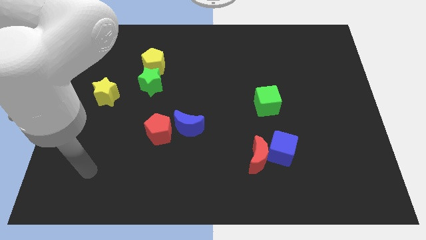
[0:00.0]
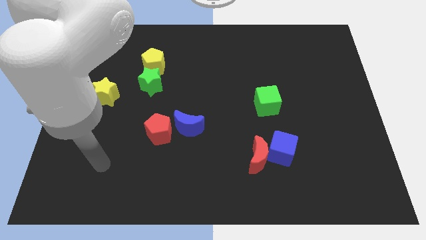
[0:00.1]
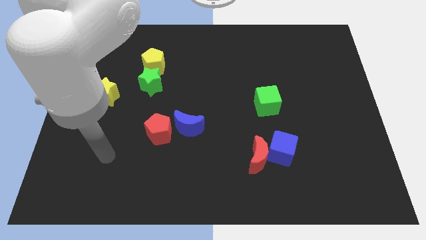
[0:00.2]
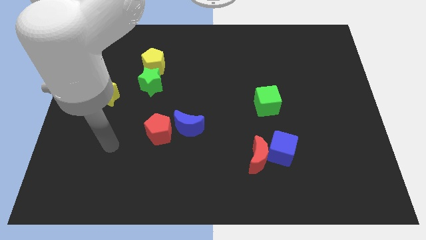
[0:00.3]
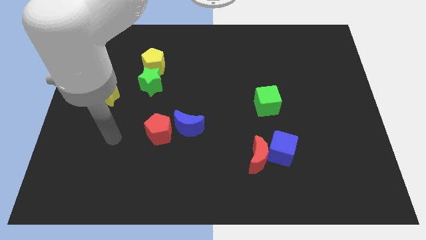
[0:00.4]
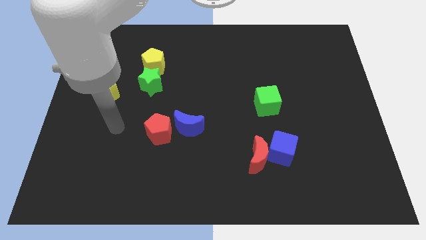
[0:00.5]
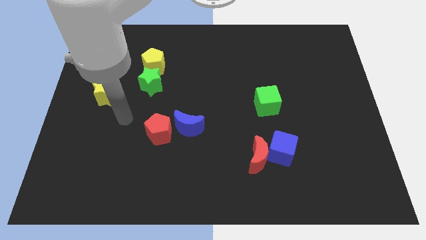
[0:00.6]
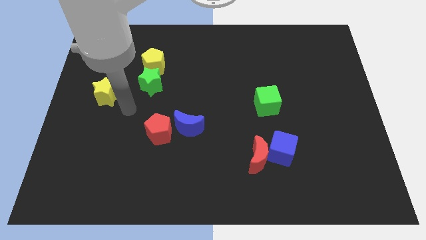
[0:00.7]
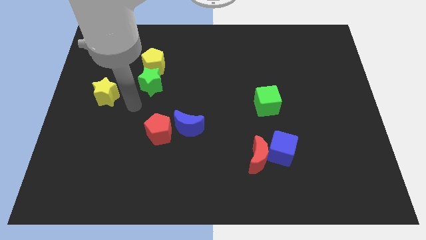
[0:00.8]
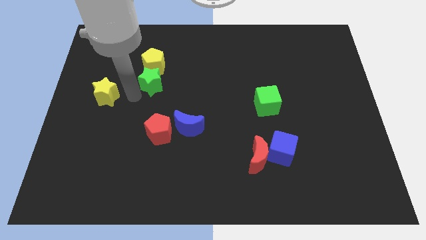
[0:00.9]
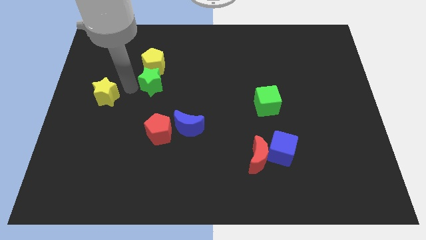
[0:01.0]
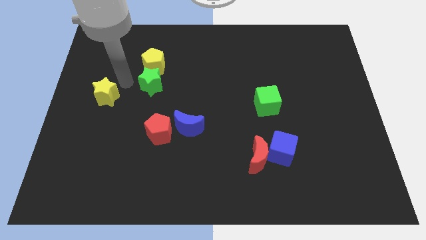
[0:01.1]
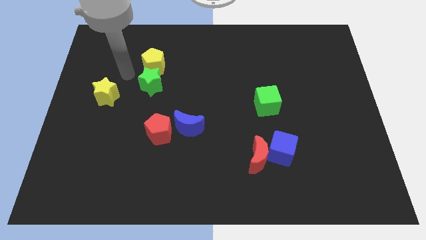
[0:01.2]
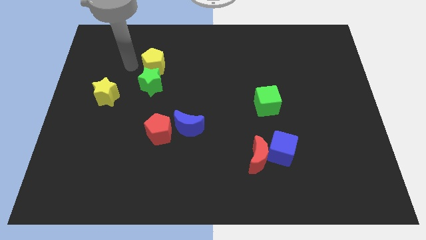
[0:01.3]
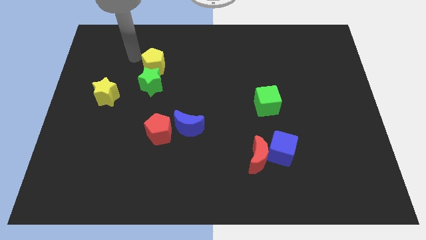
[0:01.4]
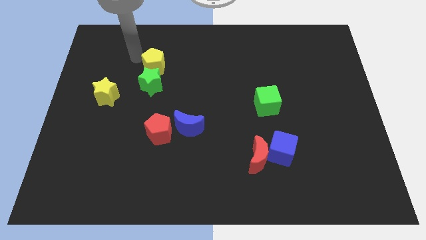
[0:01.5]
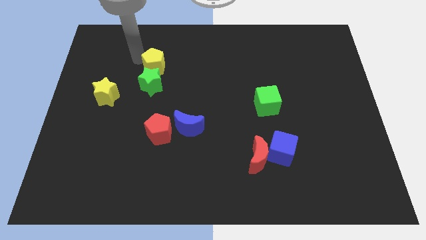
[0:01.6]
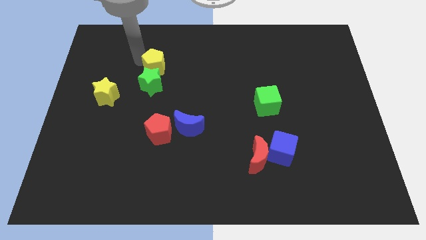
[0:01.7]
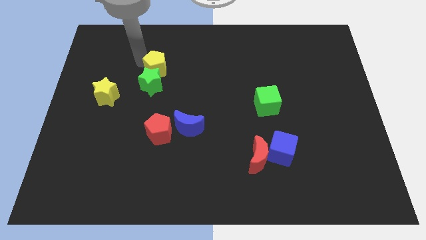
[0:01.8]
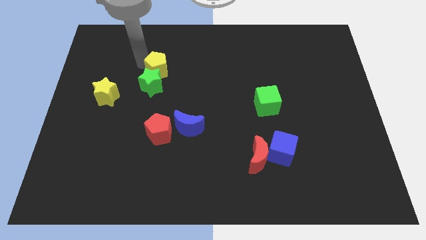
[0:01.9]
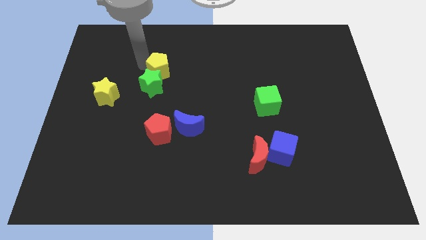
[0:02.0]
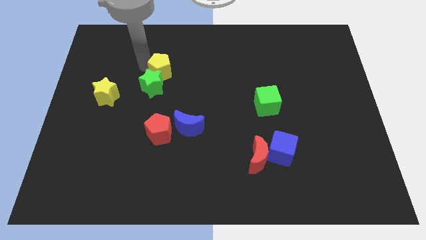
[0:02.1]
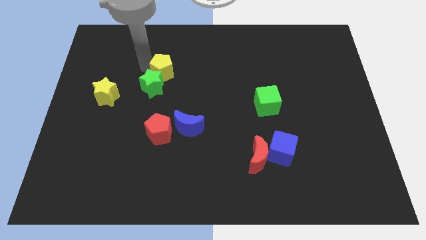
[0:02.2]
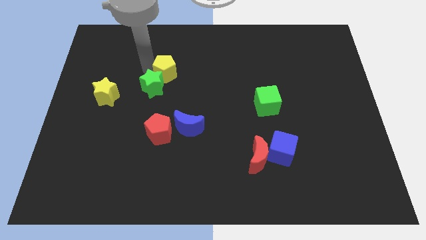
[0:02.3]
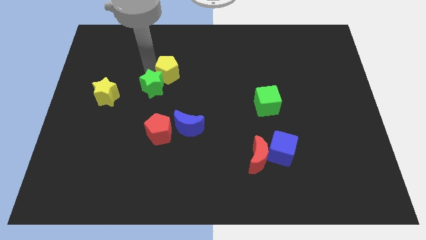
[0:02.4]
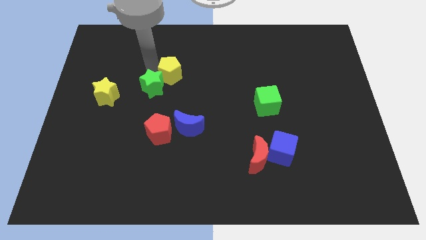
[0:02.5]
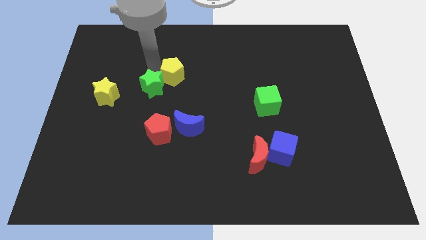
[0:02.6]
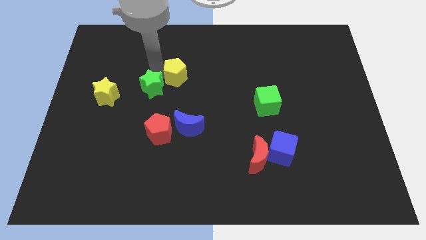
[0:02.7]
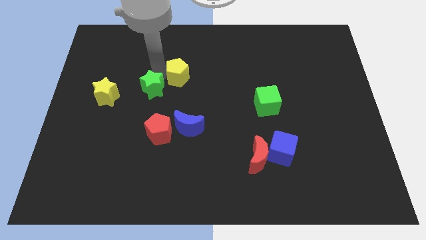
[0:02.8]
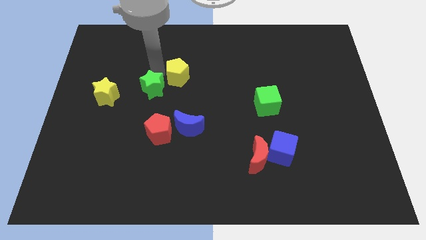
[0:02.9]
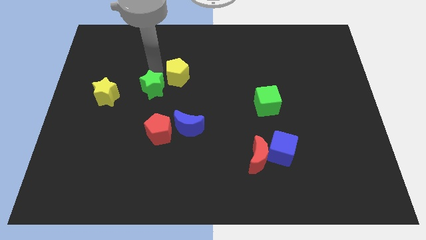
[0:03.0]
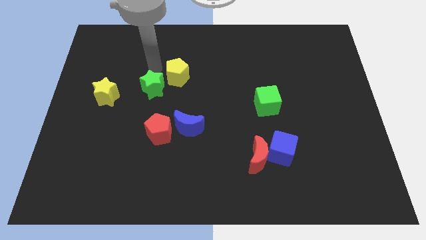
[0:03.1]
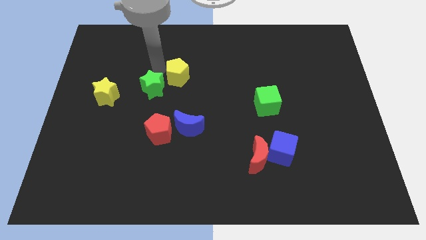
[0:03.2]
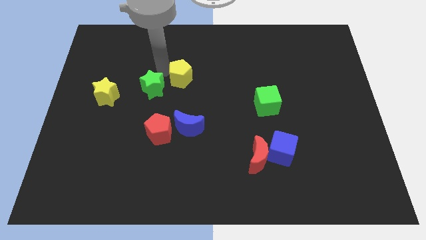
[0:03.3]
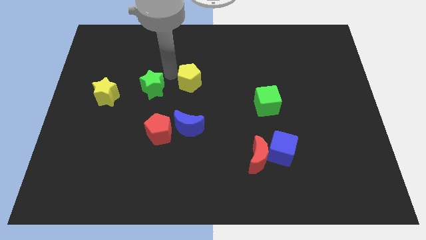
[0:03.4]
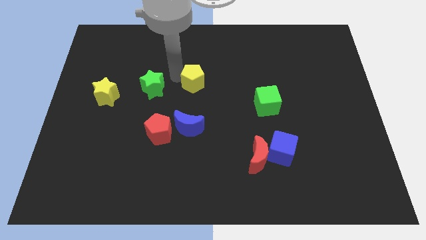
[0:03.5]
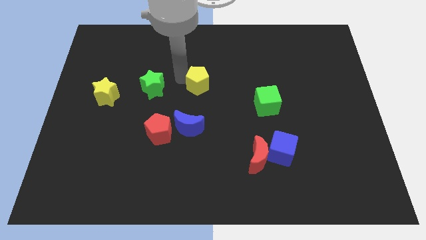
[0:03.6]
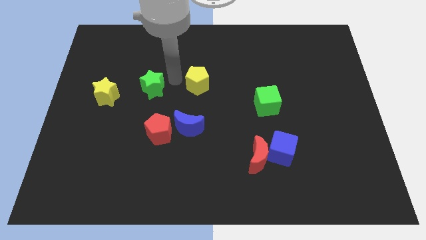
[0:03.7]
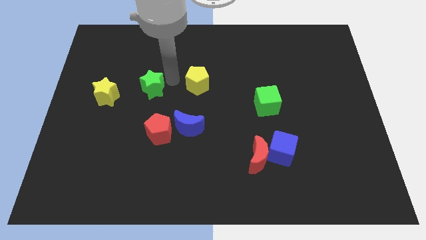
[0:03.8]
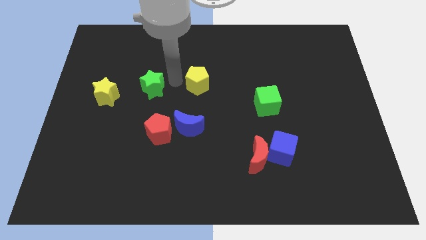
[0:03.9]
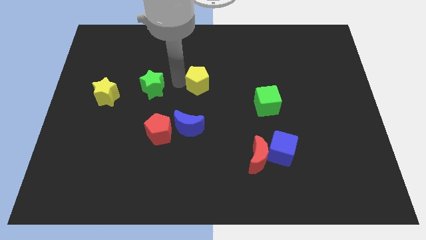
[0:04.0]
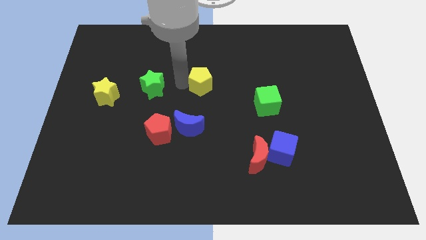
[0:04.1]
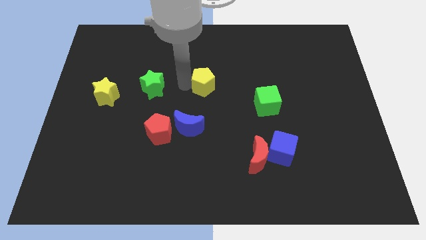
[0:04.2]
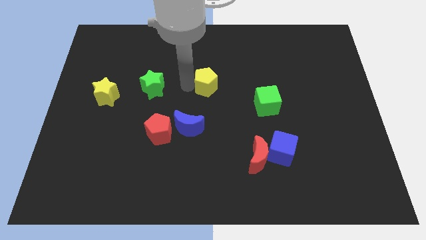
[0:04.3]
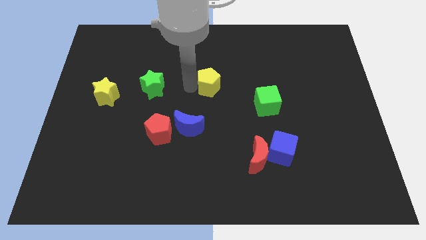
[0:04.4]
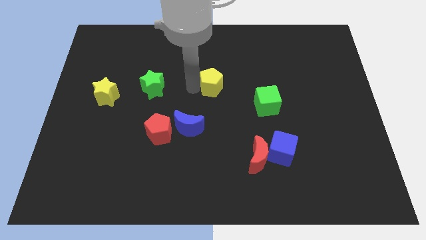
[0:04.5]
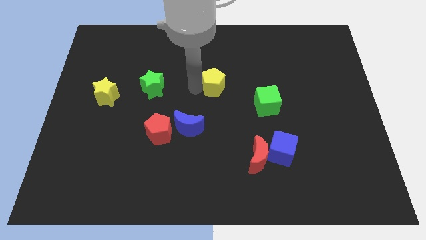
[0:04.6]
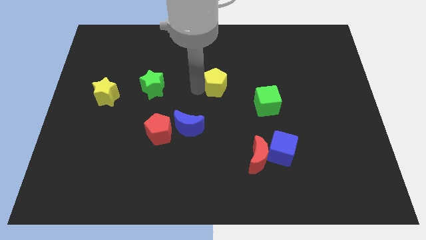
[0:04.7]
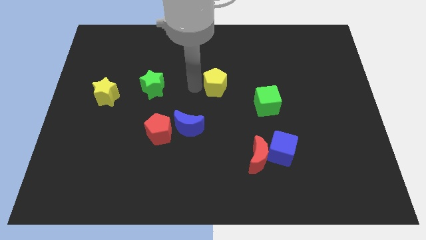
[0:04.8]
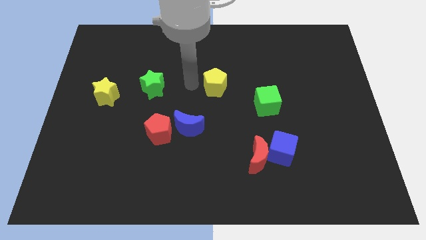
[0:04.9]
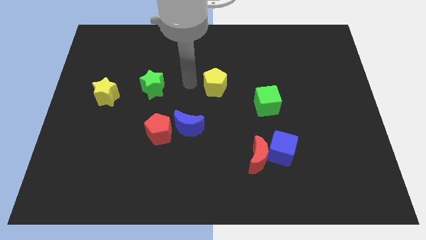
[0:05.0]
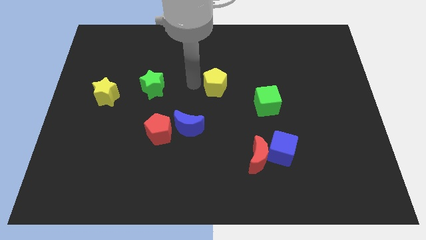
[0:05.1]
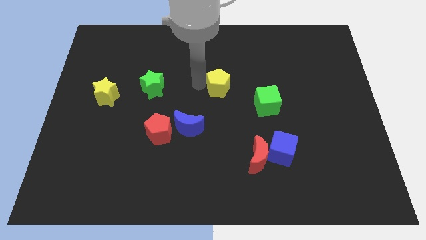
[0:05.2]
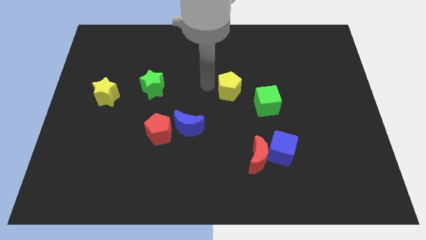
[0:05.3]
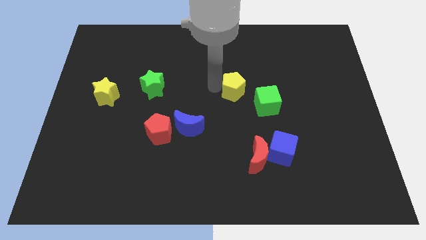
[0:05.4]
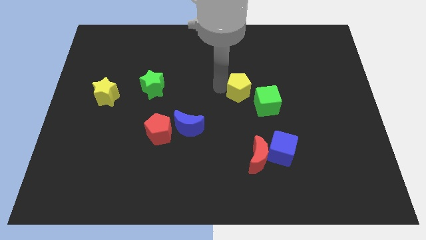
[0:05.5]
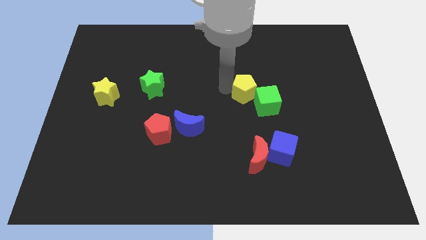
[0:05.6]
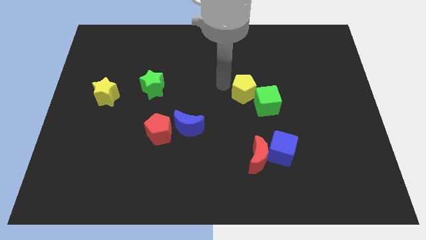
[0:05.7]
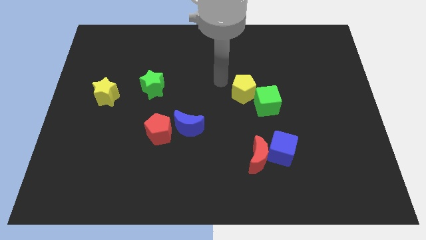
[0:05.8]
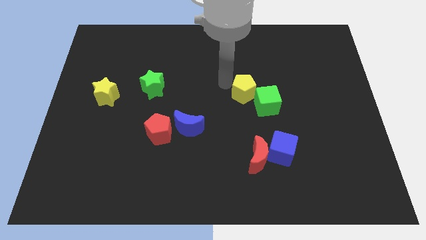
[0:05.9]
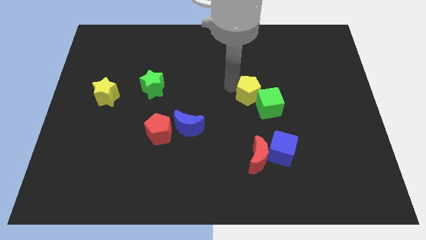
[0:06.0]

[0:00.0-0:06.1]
move the yellow pentagon to the green cube

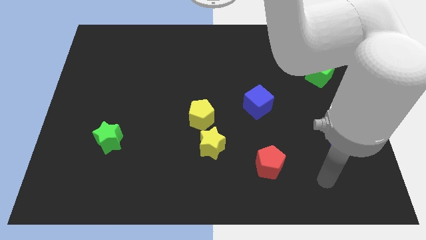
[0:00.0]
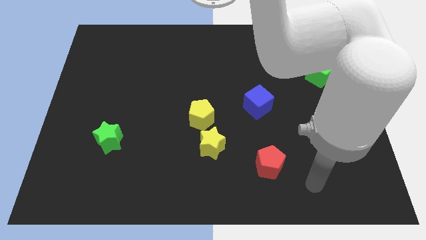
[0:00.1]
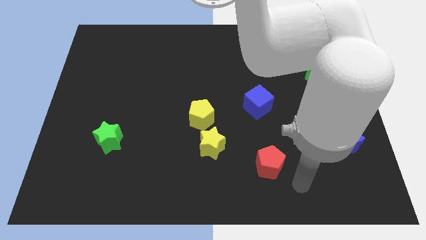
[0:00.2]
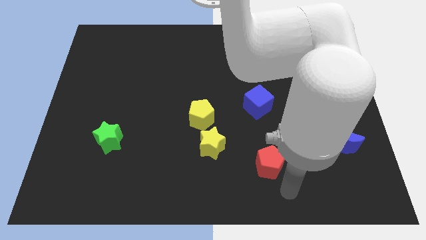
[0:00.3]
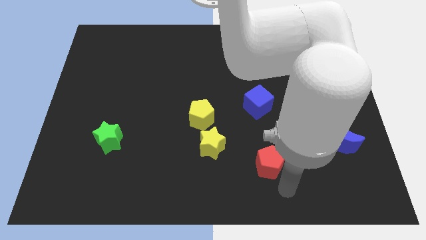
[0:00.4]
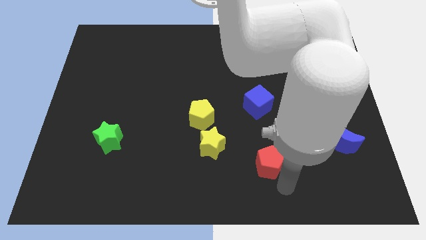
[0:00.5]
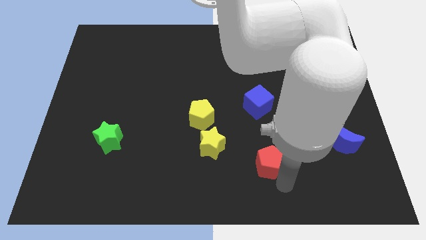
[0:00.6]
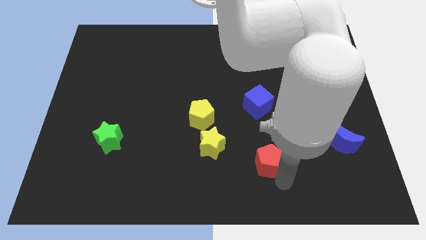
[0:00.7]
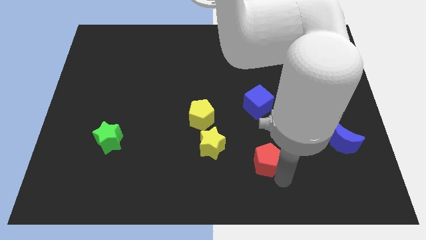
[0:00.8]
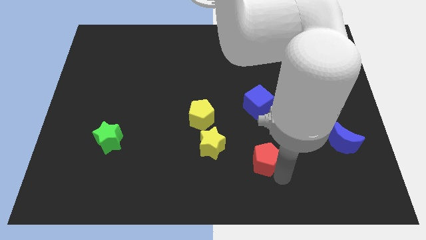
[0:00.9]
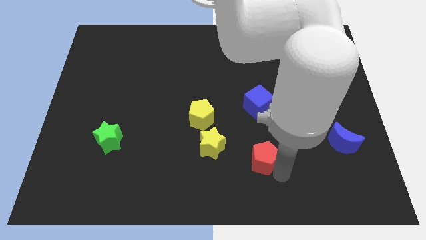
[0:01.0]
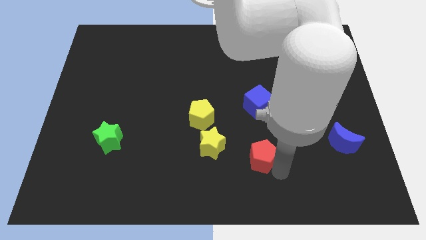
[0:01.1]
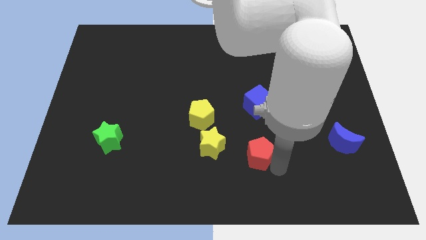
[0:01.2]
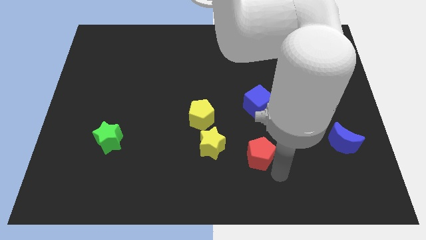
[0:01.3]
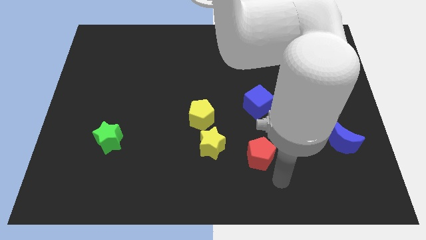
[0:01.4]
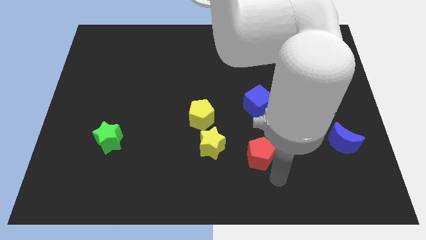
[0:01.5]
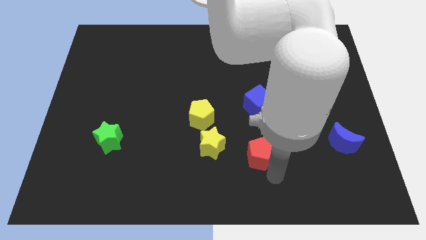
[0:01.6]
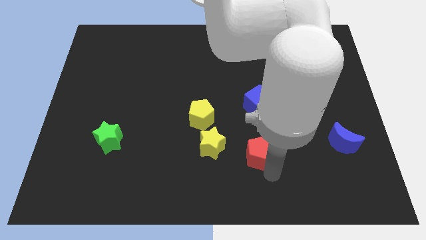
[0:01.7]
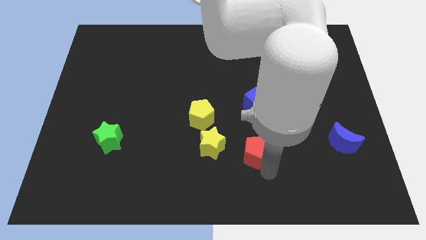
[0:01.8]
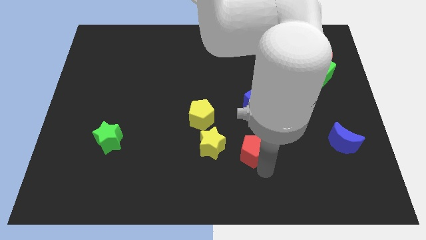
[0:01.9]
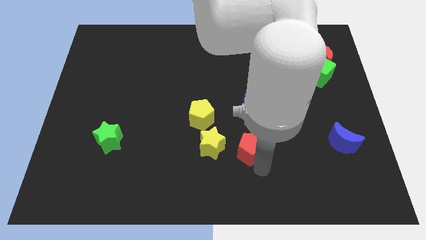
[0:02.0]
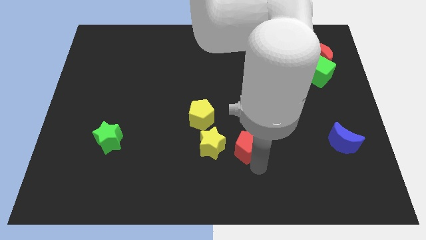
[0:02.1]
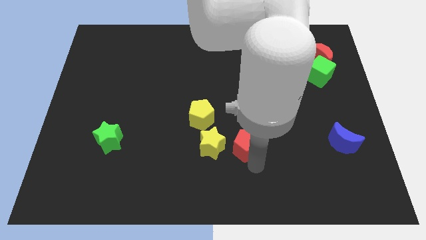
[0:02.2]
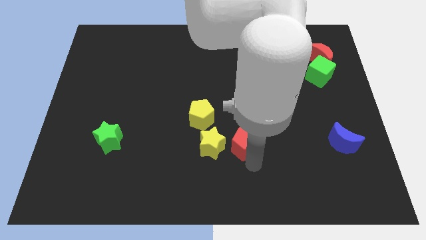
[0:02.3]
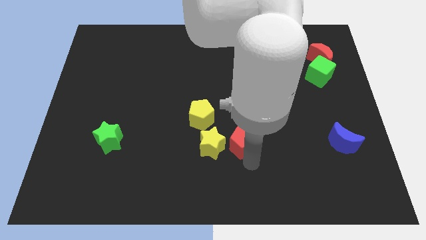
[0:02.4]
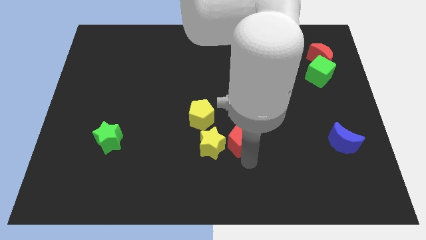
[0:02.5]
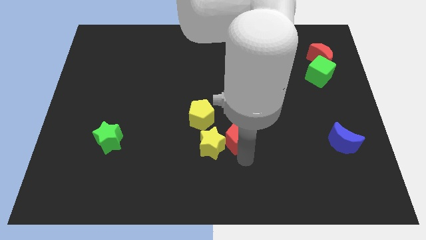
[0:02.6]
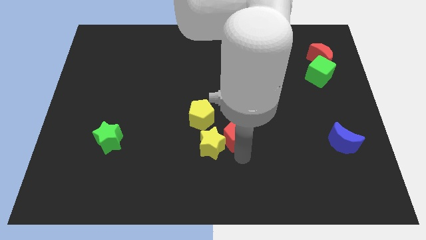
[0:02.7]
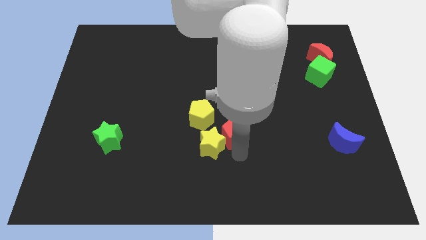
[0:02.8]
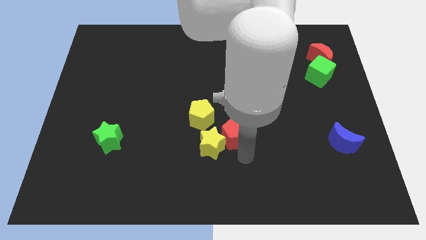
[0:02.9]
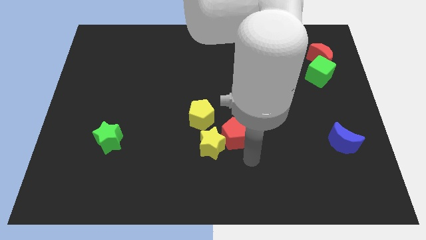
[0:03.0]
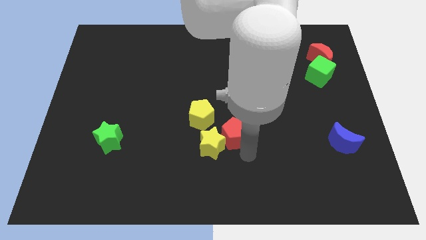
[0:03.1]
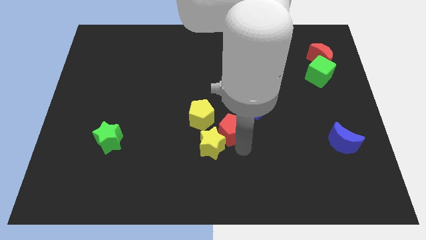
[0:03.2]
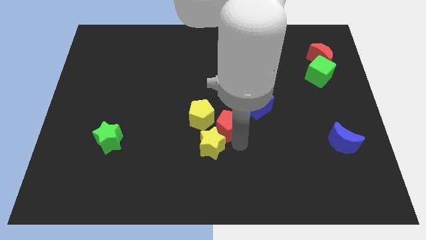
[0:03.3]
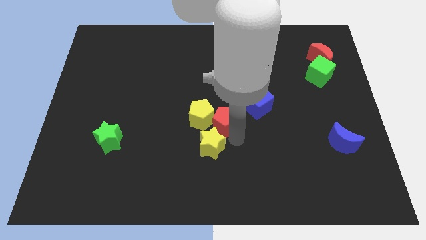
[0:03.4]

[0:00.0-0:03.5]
put the red pentagon towards the yellow pentagon
